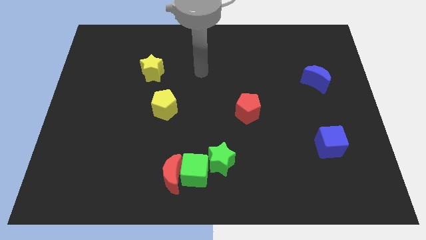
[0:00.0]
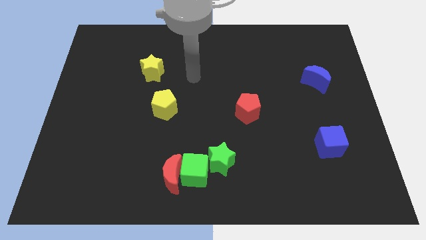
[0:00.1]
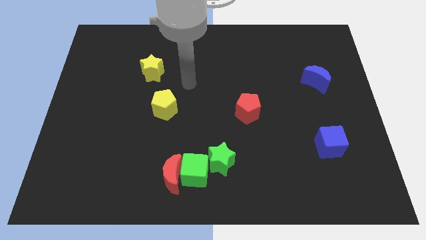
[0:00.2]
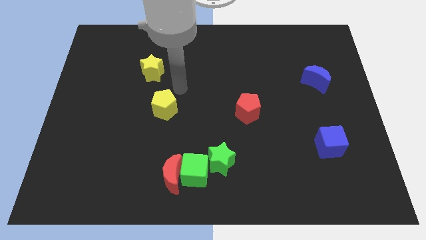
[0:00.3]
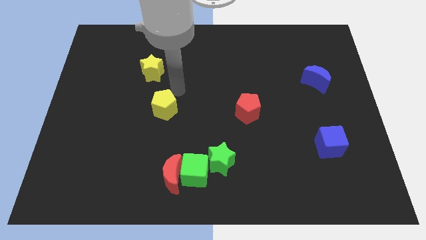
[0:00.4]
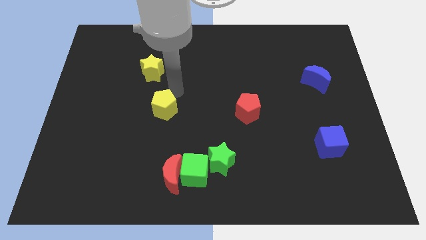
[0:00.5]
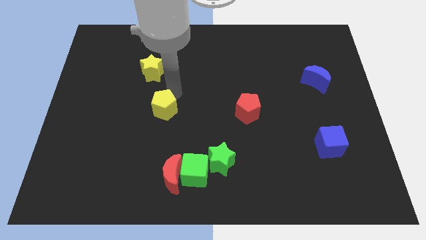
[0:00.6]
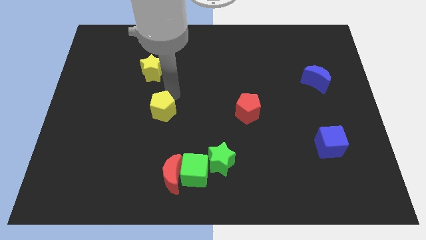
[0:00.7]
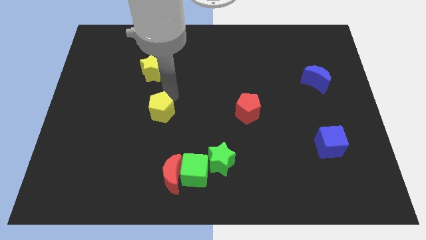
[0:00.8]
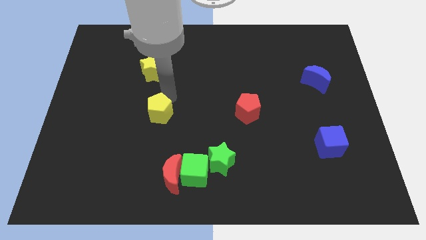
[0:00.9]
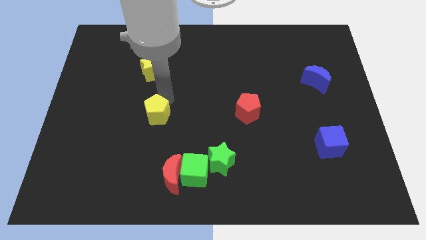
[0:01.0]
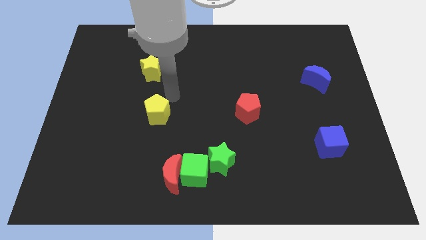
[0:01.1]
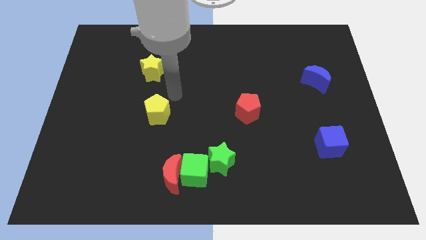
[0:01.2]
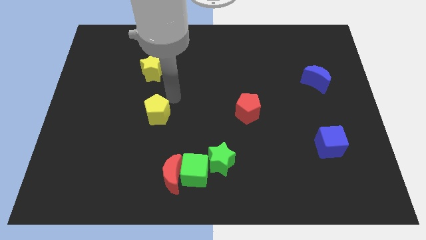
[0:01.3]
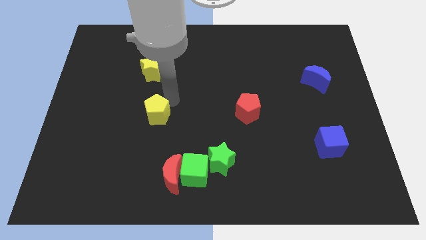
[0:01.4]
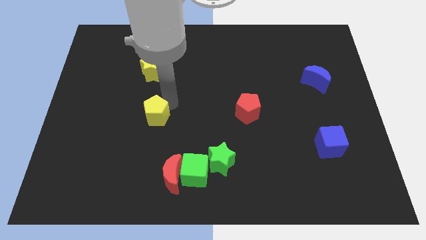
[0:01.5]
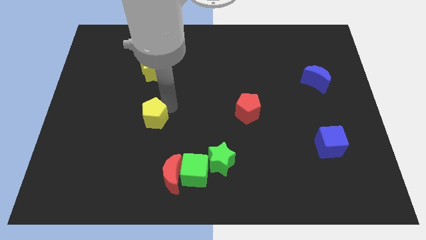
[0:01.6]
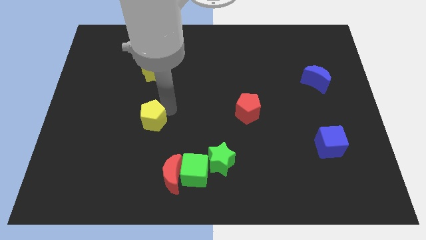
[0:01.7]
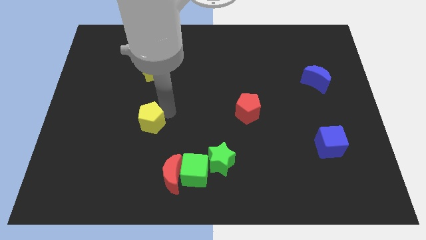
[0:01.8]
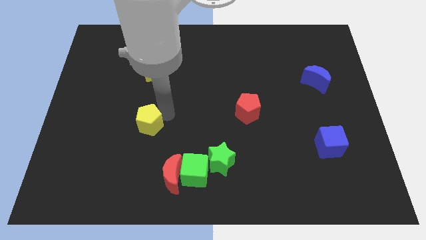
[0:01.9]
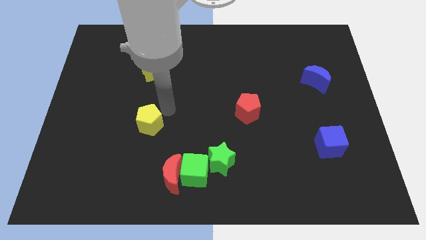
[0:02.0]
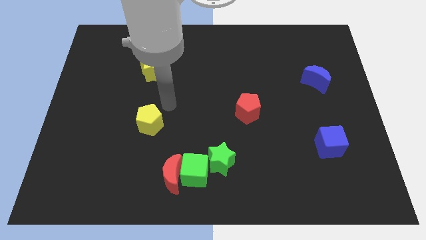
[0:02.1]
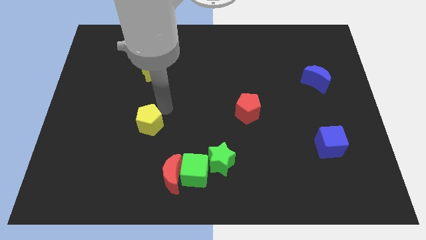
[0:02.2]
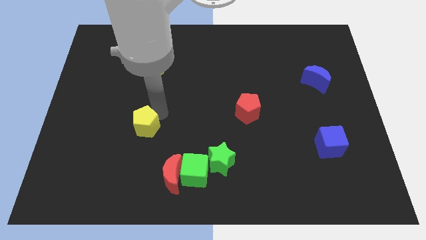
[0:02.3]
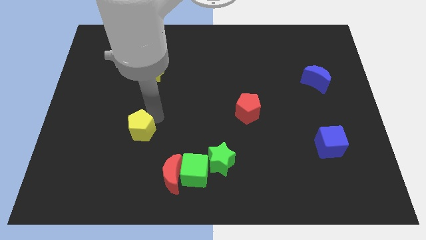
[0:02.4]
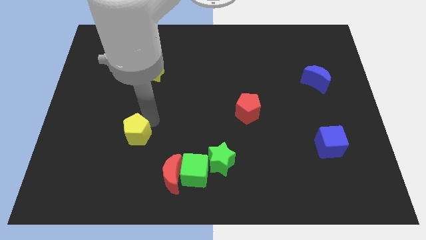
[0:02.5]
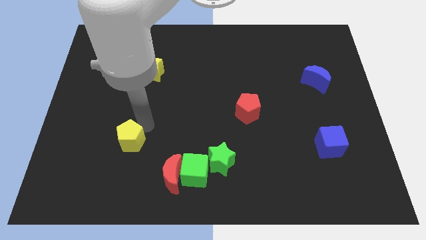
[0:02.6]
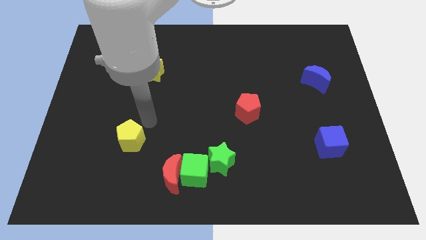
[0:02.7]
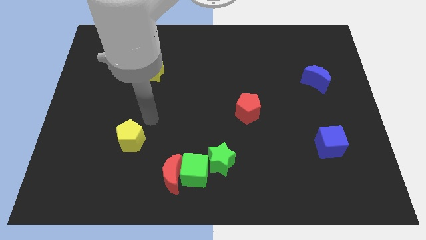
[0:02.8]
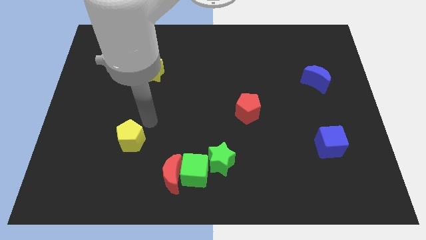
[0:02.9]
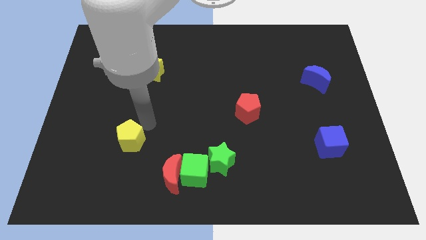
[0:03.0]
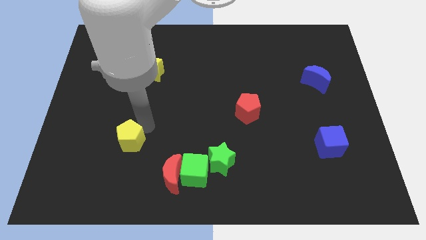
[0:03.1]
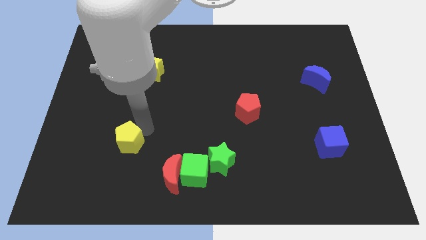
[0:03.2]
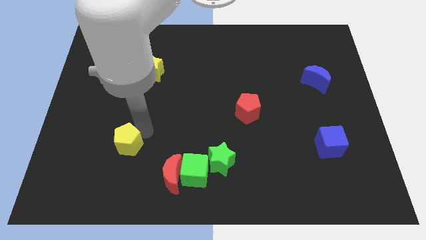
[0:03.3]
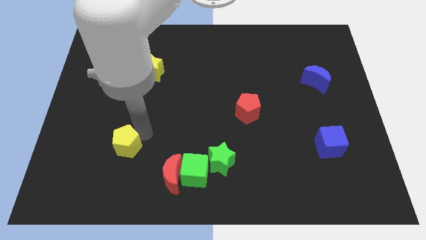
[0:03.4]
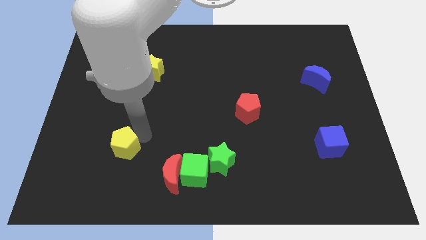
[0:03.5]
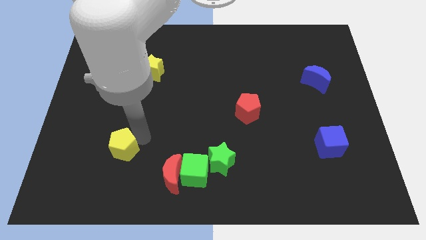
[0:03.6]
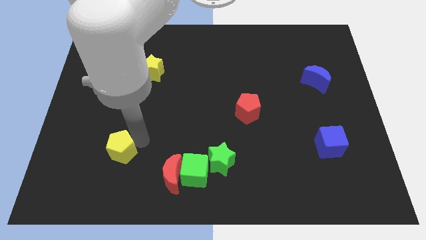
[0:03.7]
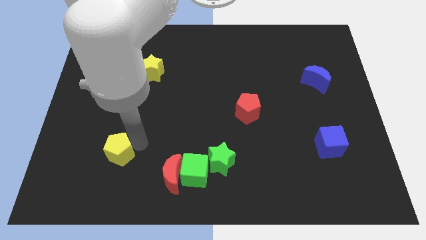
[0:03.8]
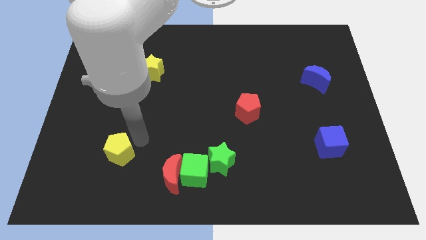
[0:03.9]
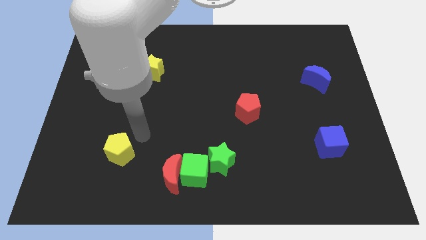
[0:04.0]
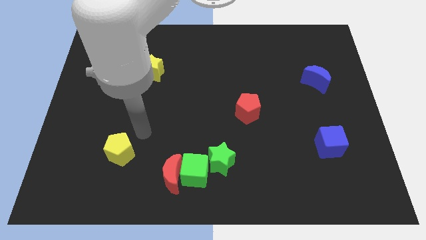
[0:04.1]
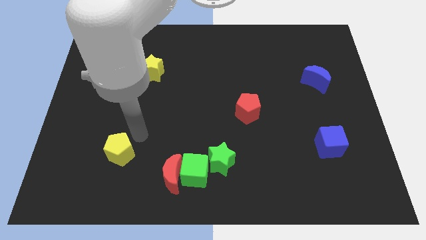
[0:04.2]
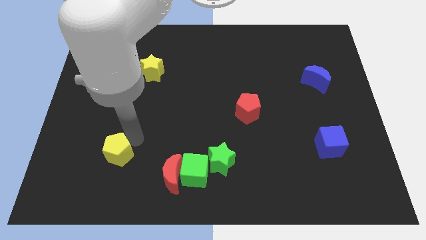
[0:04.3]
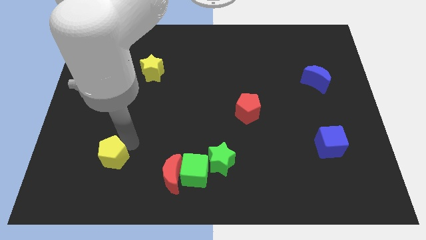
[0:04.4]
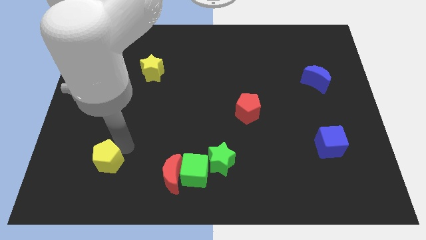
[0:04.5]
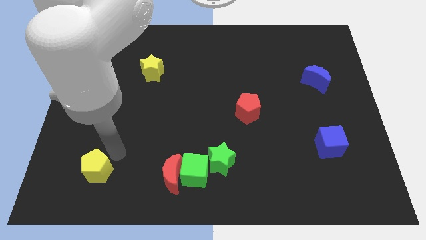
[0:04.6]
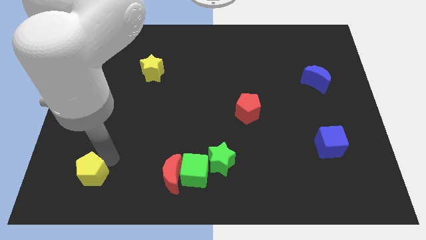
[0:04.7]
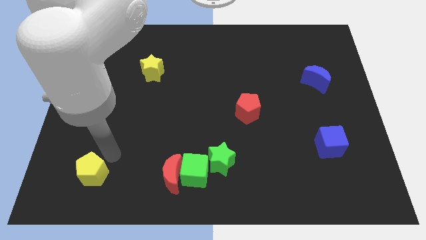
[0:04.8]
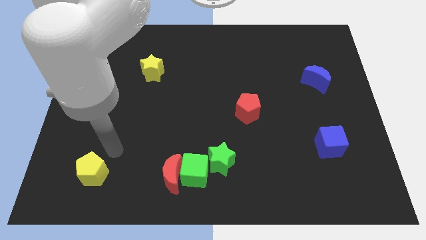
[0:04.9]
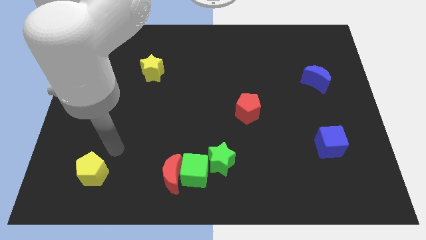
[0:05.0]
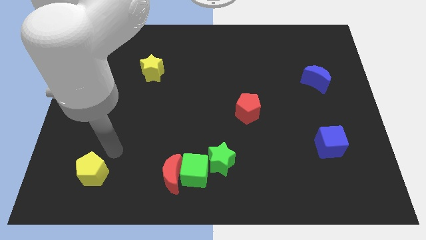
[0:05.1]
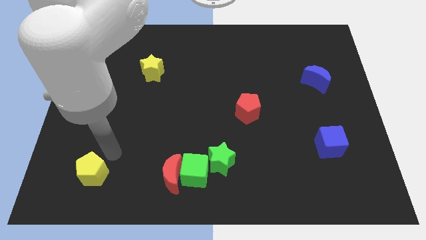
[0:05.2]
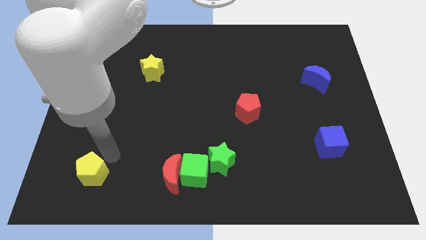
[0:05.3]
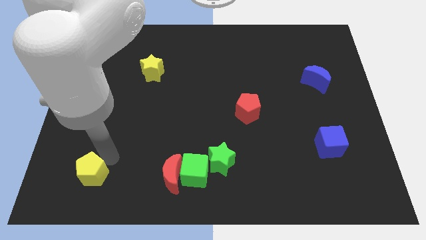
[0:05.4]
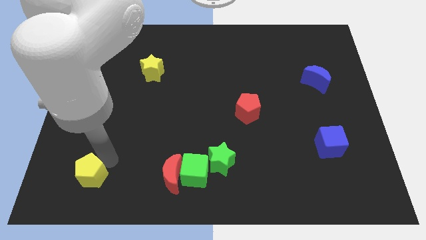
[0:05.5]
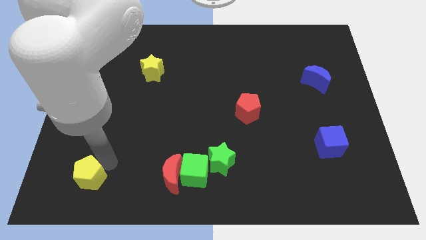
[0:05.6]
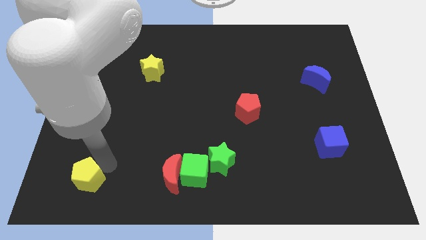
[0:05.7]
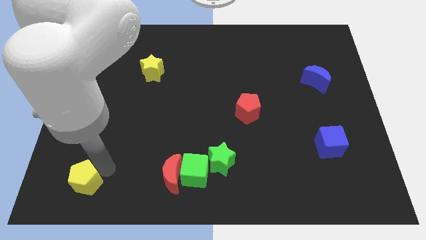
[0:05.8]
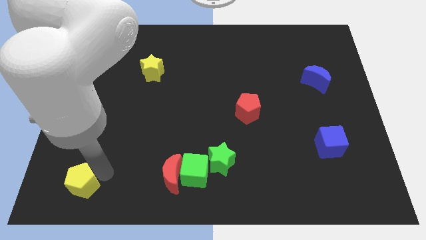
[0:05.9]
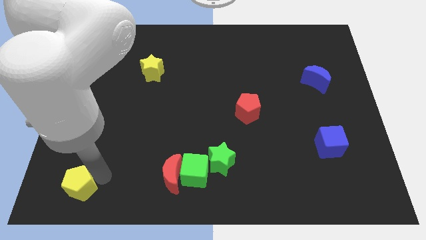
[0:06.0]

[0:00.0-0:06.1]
slide the yellow pentagon to the bottom left corner
